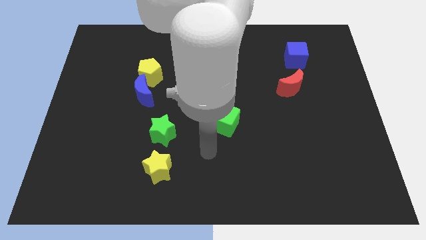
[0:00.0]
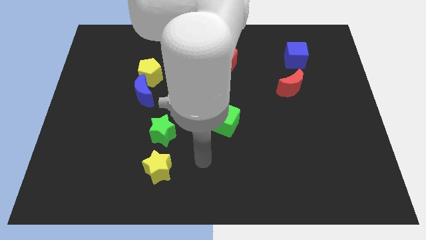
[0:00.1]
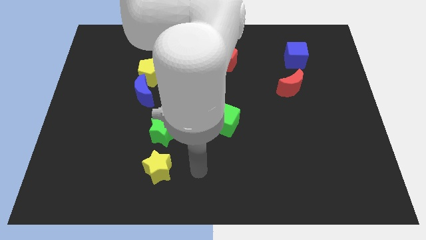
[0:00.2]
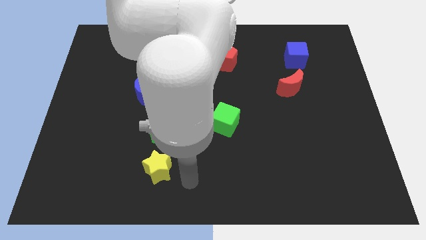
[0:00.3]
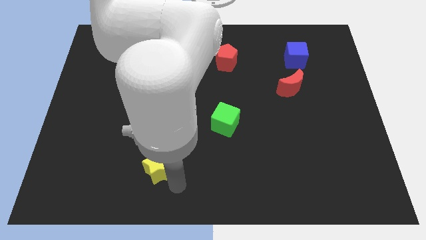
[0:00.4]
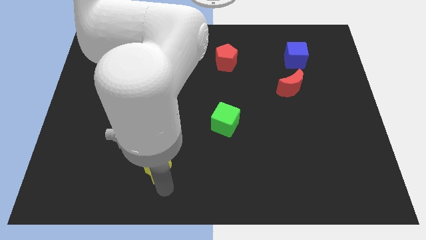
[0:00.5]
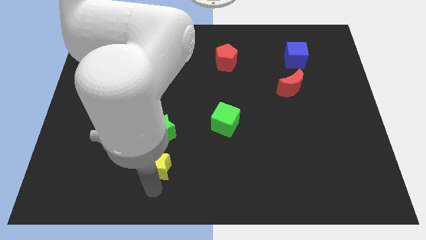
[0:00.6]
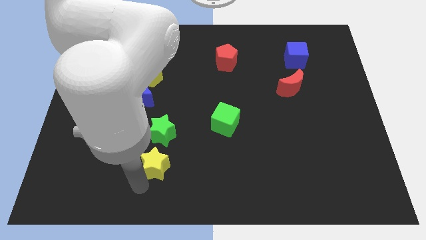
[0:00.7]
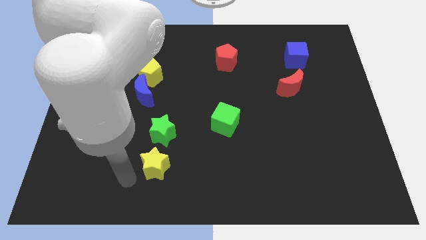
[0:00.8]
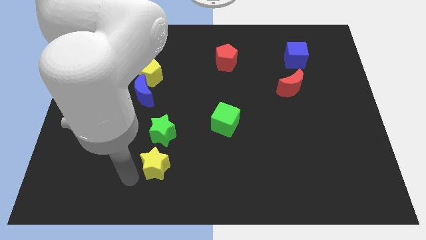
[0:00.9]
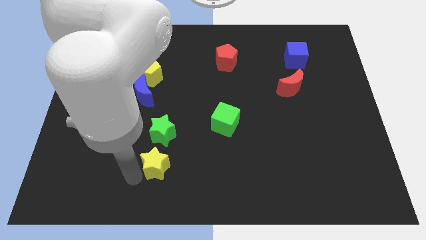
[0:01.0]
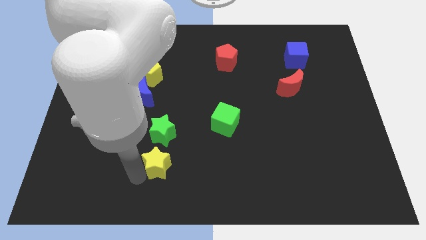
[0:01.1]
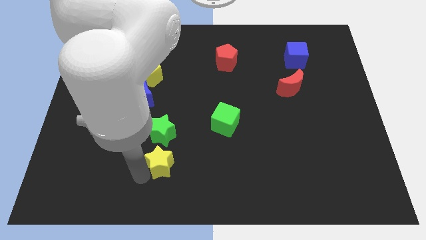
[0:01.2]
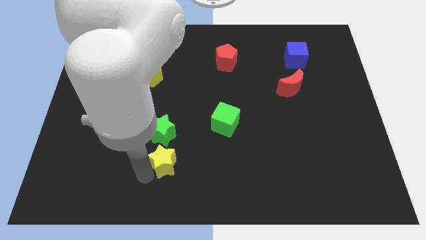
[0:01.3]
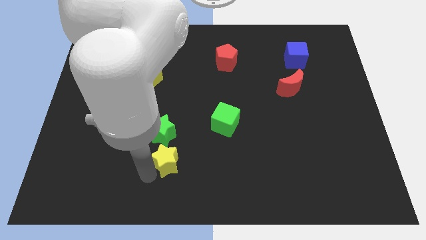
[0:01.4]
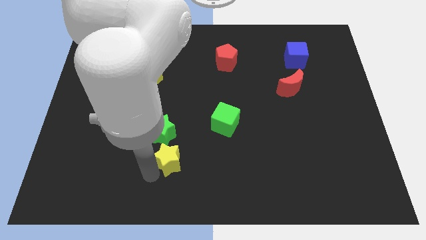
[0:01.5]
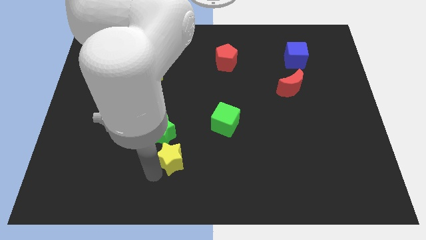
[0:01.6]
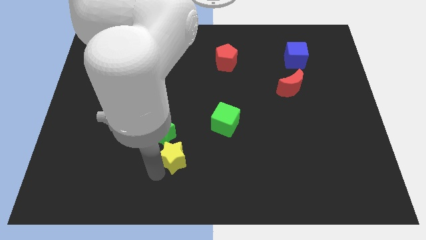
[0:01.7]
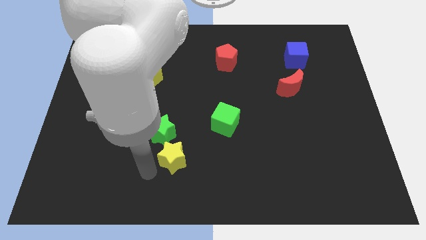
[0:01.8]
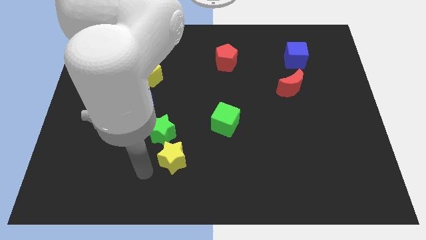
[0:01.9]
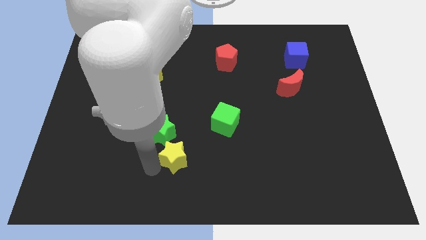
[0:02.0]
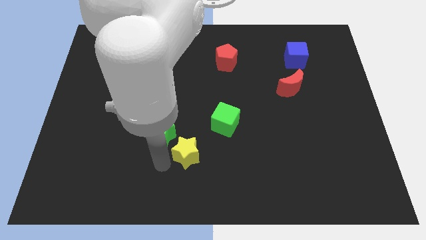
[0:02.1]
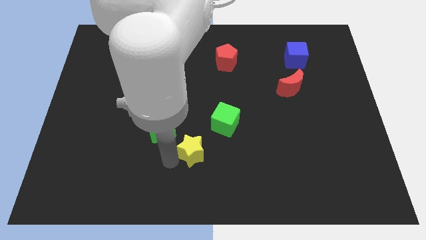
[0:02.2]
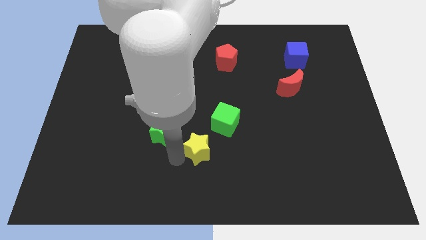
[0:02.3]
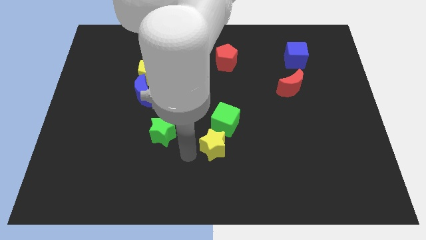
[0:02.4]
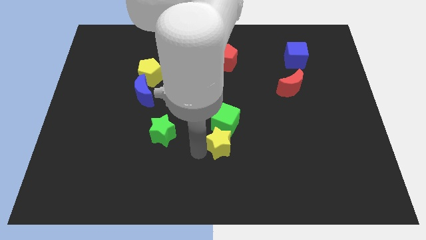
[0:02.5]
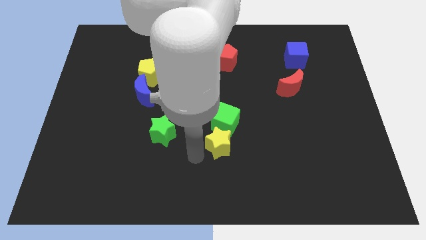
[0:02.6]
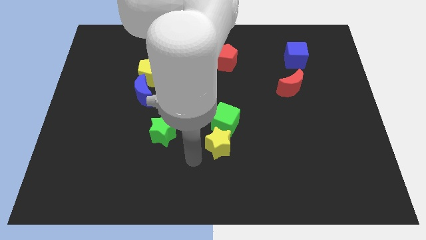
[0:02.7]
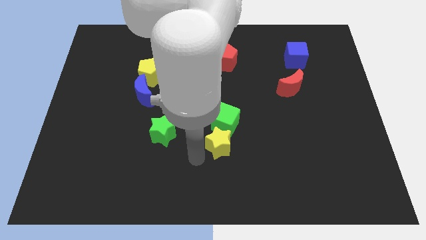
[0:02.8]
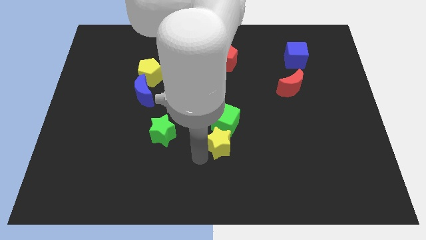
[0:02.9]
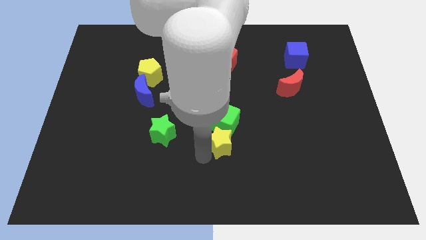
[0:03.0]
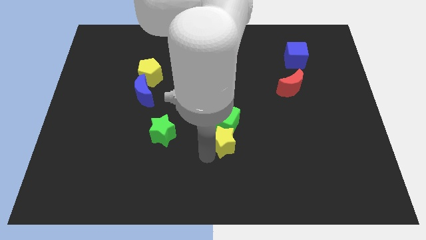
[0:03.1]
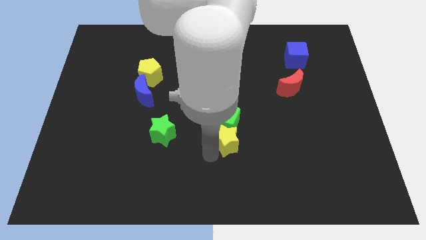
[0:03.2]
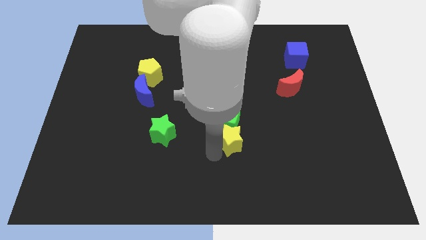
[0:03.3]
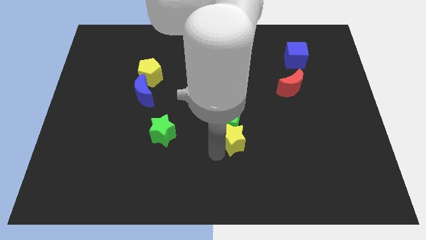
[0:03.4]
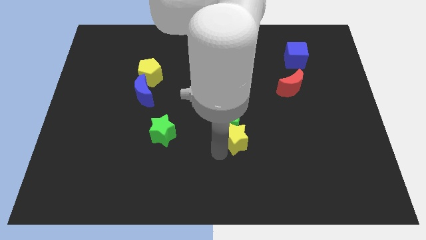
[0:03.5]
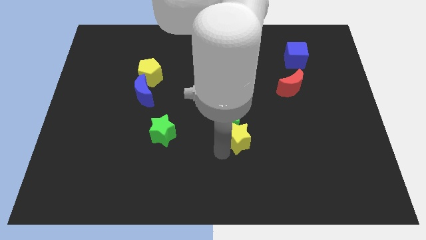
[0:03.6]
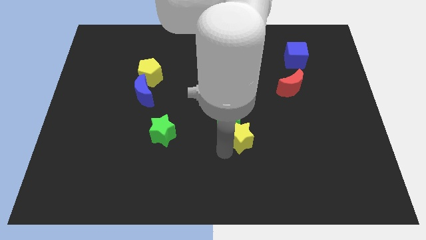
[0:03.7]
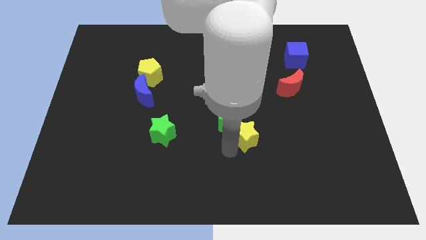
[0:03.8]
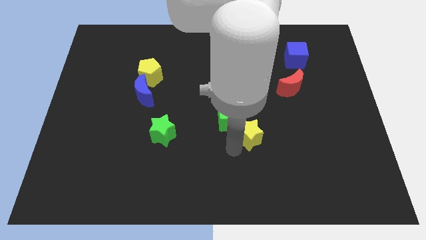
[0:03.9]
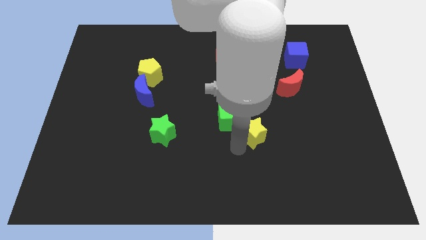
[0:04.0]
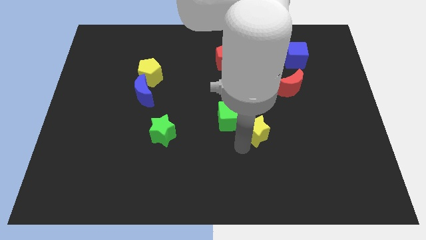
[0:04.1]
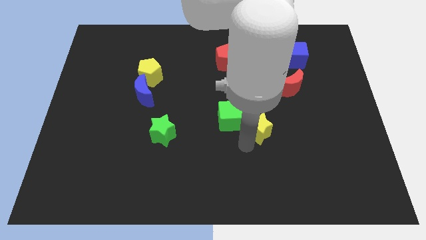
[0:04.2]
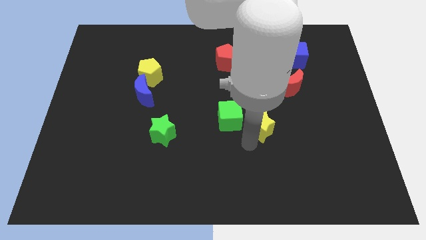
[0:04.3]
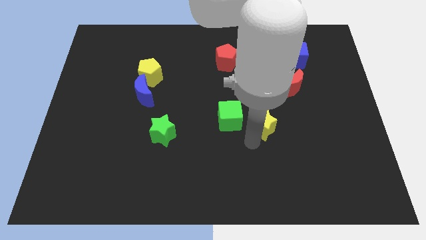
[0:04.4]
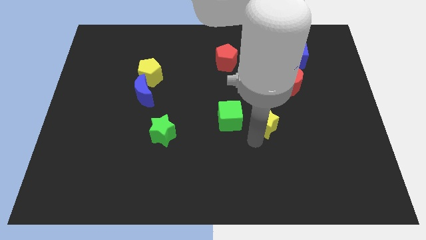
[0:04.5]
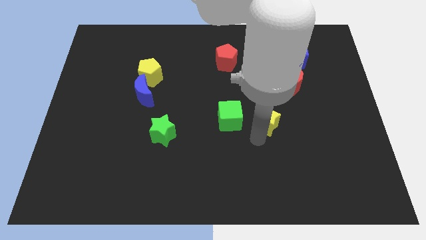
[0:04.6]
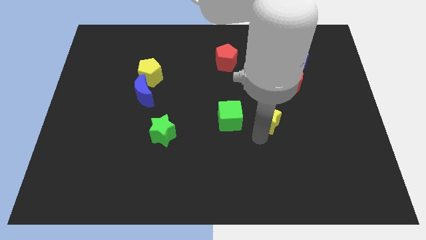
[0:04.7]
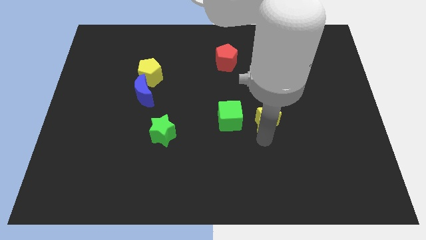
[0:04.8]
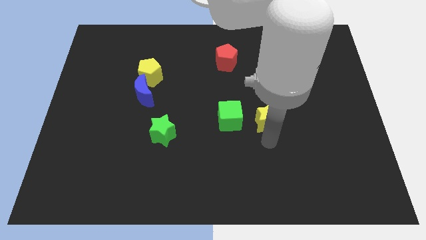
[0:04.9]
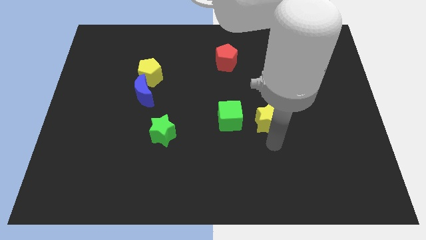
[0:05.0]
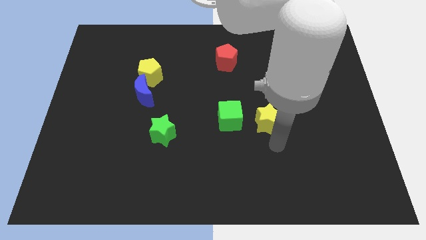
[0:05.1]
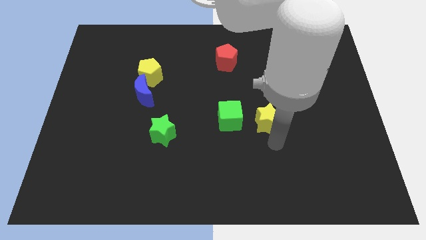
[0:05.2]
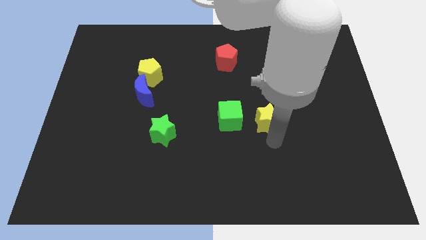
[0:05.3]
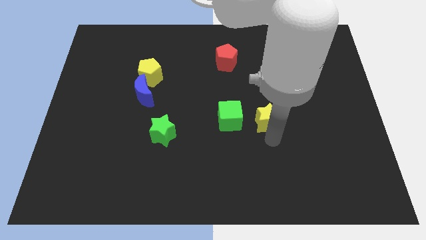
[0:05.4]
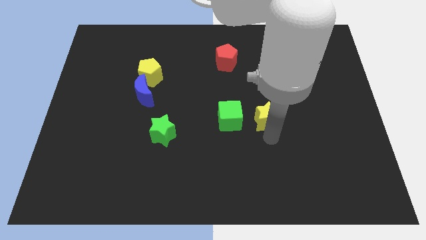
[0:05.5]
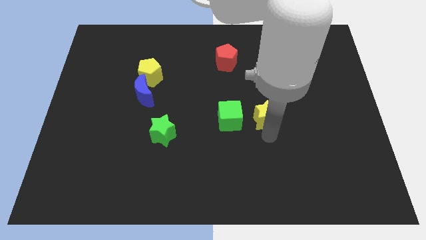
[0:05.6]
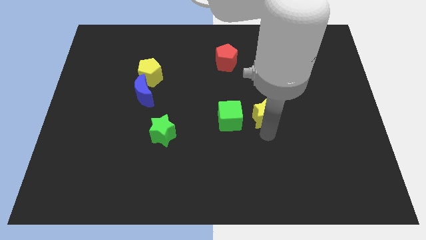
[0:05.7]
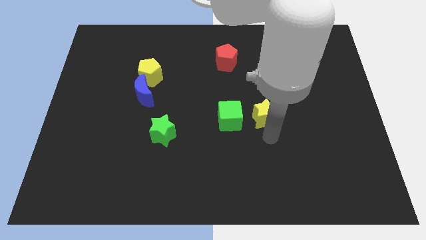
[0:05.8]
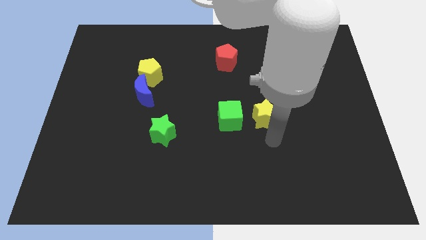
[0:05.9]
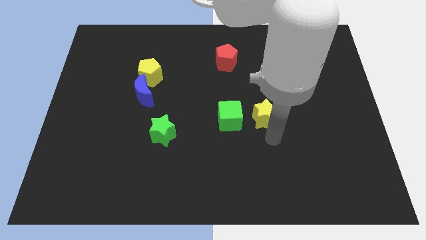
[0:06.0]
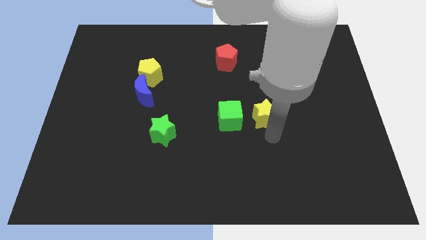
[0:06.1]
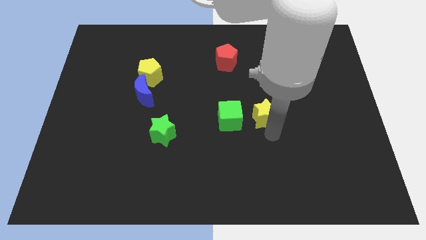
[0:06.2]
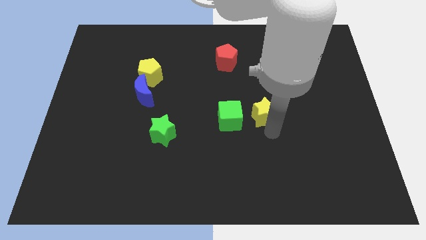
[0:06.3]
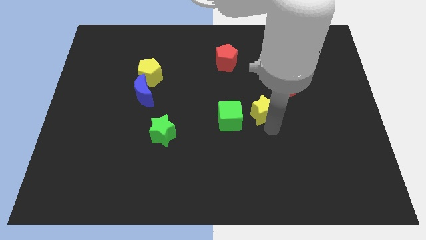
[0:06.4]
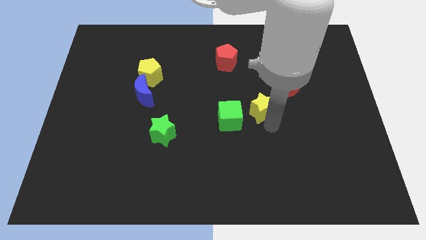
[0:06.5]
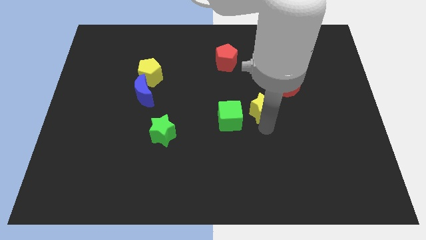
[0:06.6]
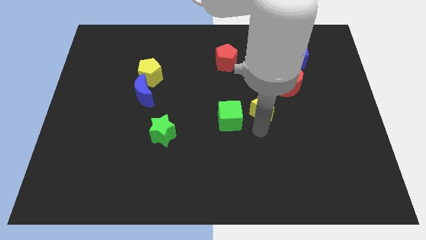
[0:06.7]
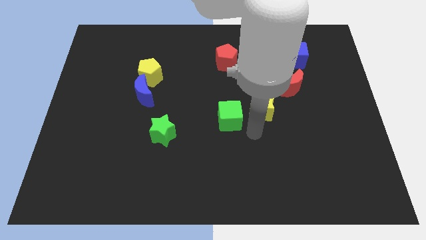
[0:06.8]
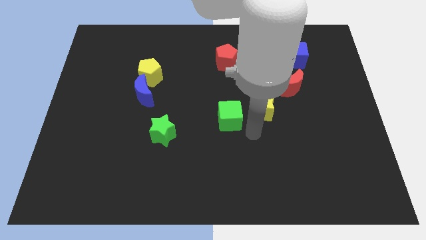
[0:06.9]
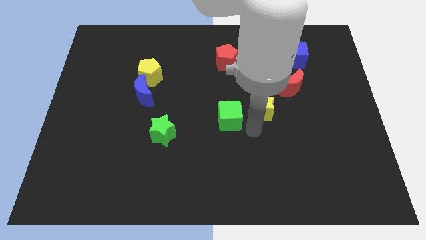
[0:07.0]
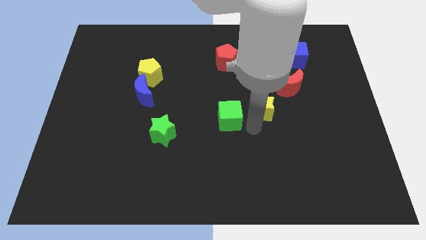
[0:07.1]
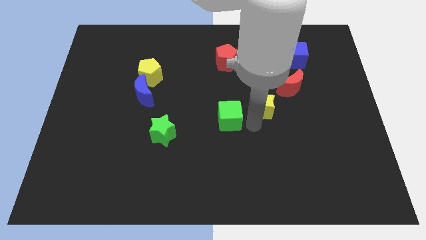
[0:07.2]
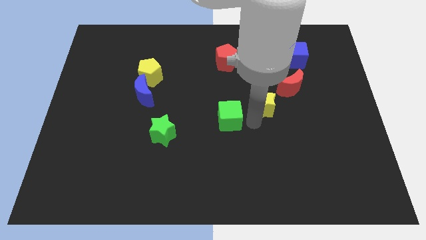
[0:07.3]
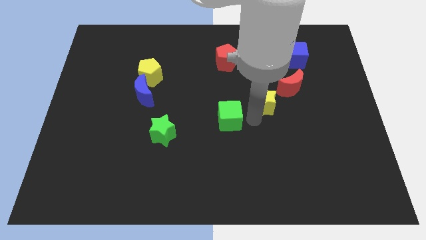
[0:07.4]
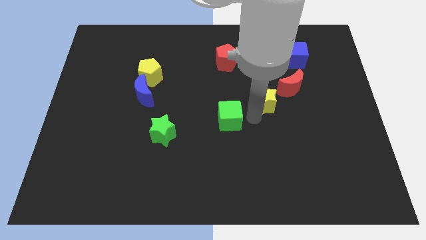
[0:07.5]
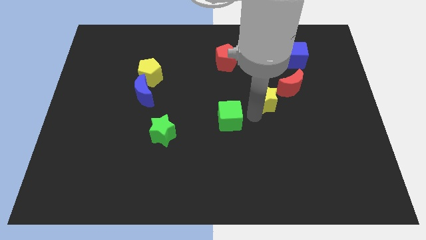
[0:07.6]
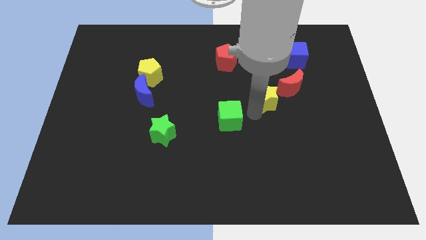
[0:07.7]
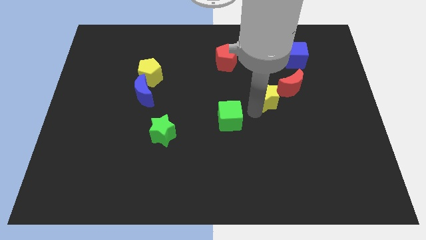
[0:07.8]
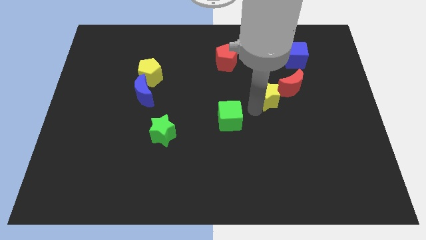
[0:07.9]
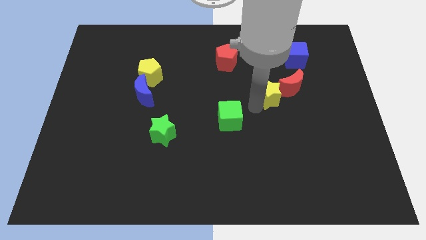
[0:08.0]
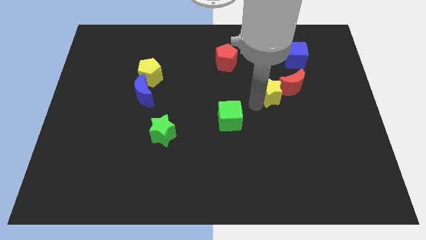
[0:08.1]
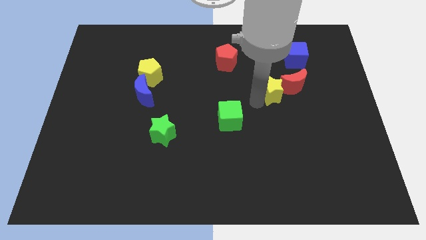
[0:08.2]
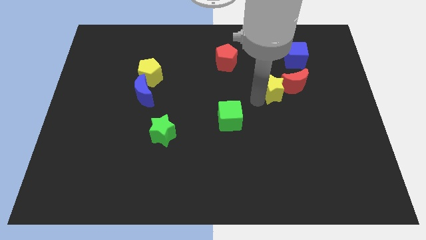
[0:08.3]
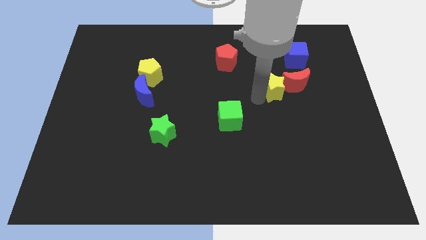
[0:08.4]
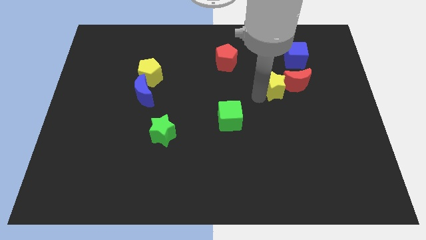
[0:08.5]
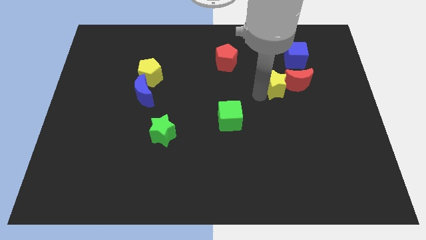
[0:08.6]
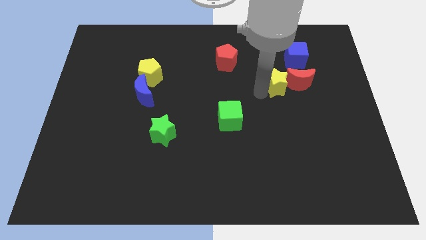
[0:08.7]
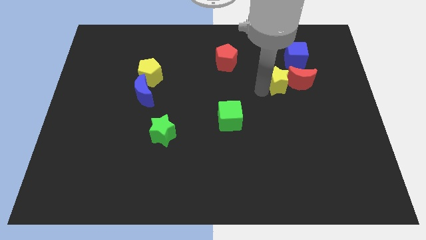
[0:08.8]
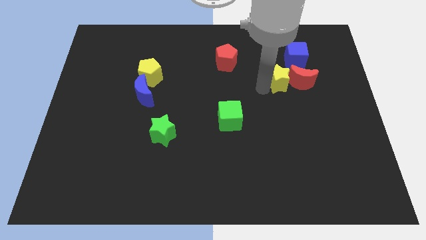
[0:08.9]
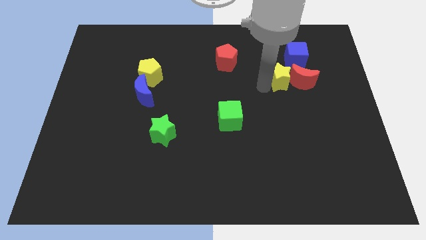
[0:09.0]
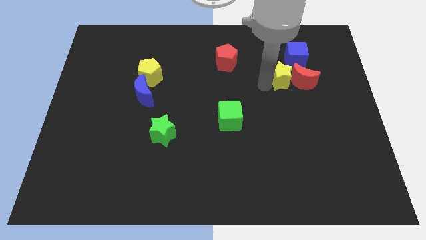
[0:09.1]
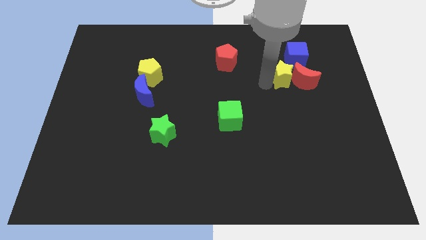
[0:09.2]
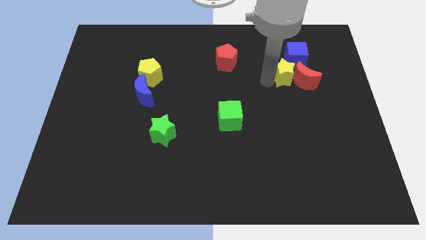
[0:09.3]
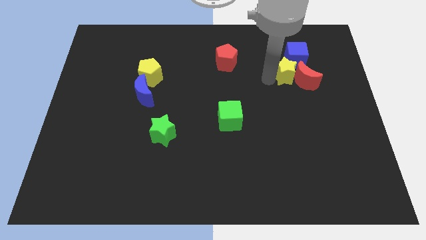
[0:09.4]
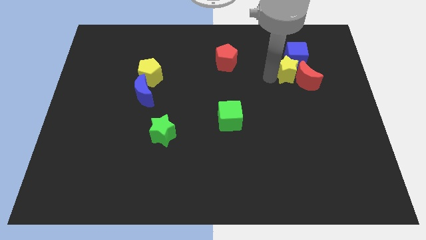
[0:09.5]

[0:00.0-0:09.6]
push the yellow star next to the blue cube
